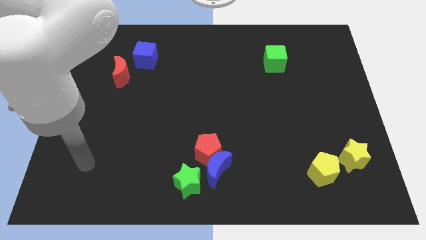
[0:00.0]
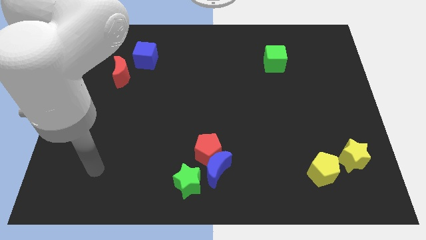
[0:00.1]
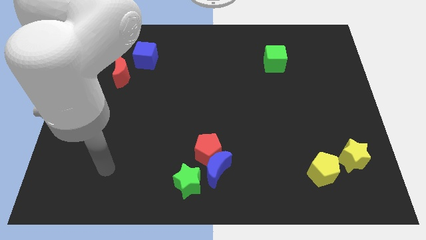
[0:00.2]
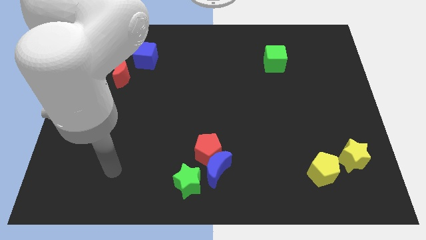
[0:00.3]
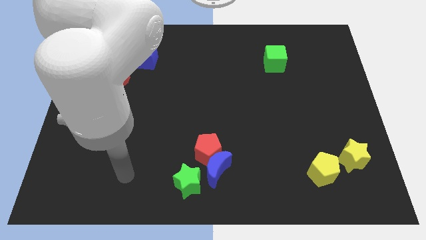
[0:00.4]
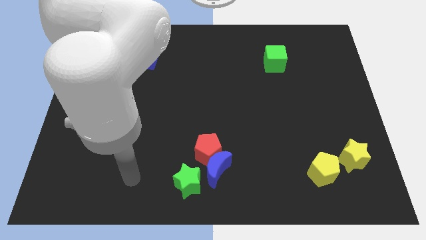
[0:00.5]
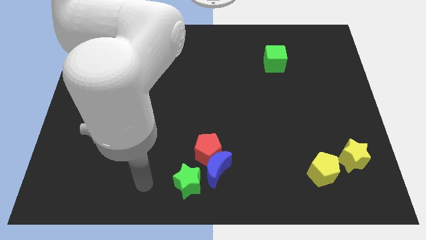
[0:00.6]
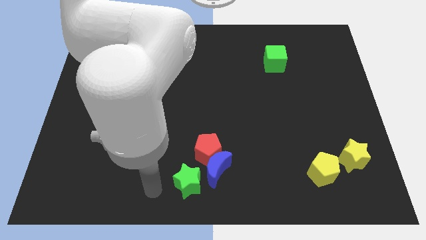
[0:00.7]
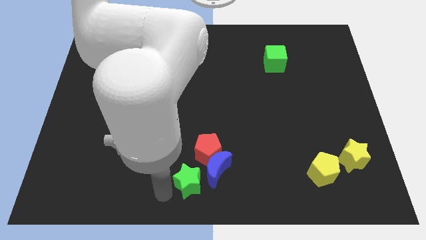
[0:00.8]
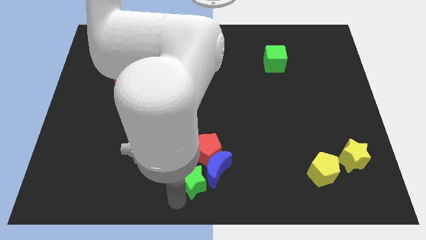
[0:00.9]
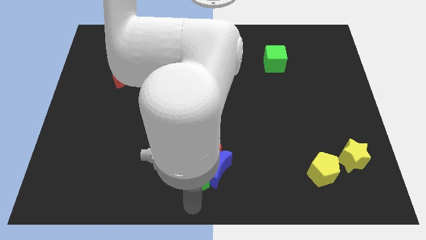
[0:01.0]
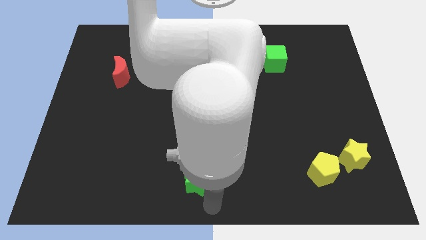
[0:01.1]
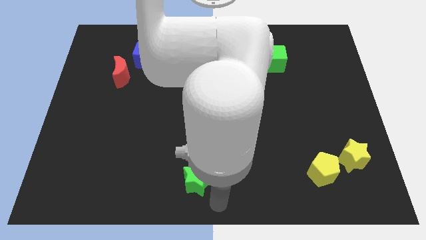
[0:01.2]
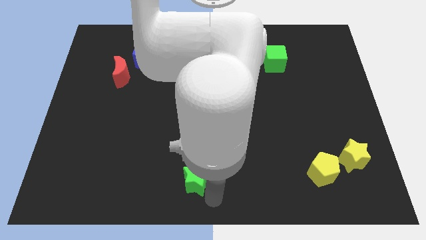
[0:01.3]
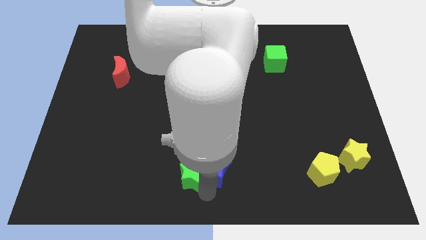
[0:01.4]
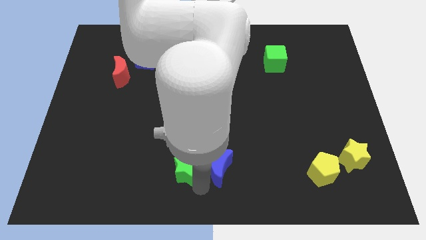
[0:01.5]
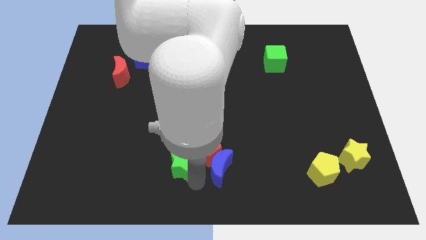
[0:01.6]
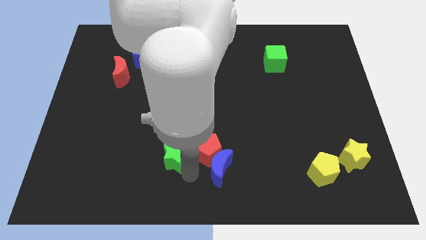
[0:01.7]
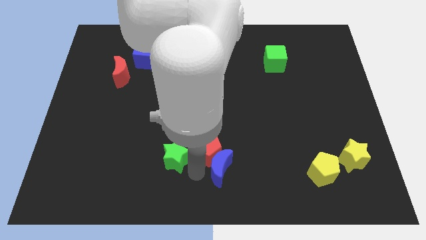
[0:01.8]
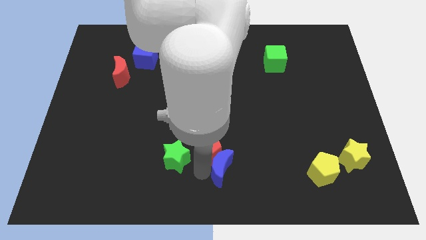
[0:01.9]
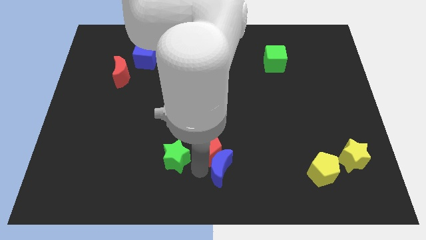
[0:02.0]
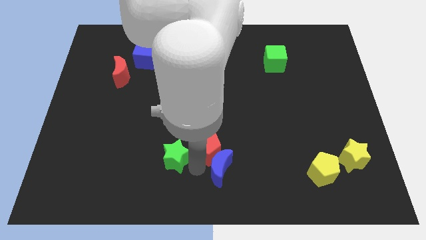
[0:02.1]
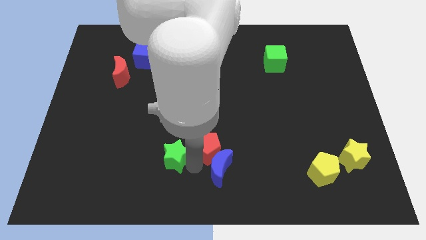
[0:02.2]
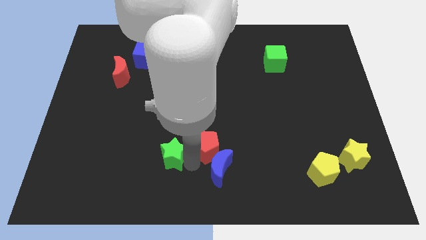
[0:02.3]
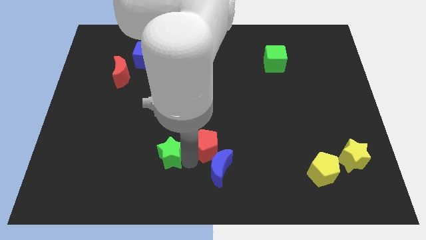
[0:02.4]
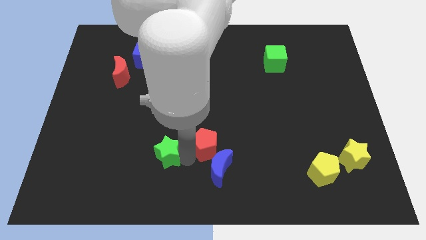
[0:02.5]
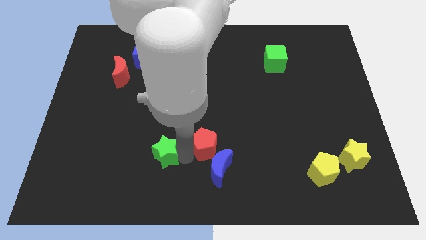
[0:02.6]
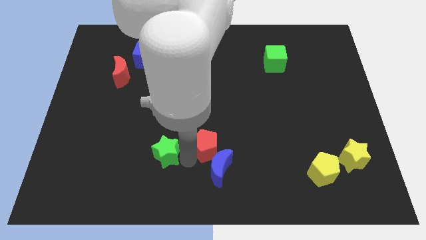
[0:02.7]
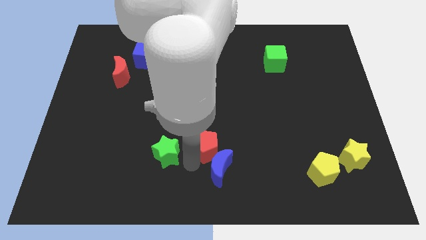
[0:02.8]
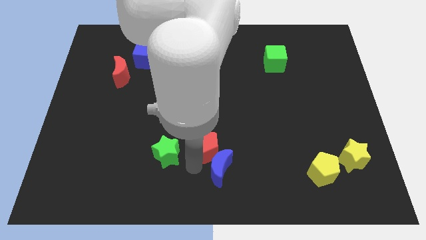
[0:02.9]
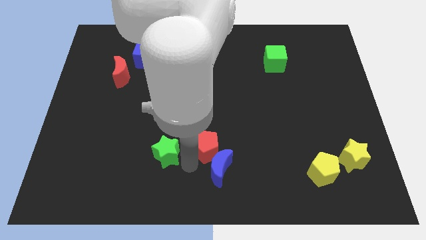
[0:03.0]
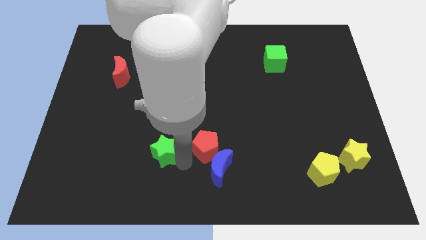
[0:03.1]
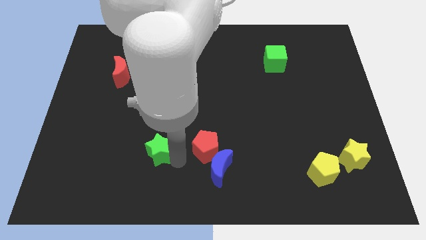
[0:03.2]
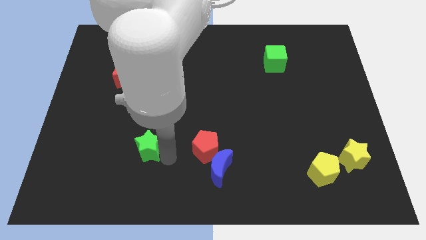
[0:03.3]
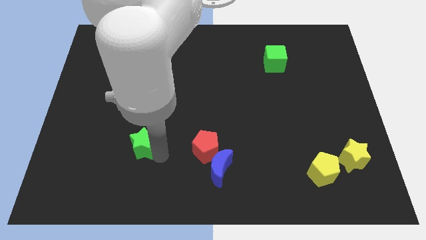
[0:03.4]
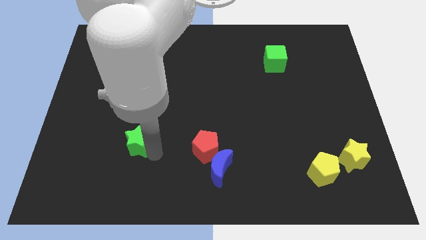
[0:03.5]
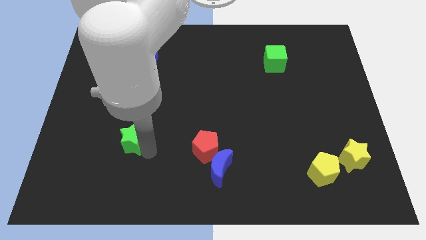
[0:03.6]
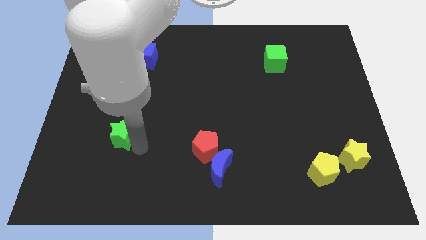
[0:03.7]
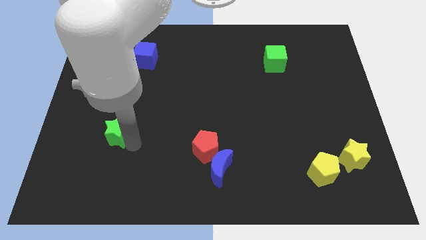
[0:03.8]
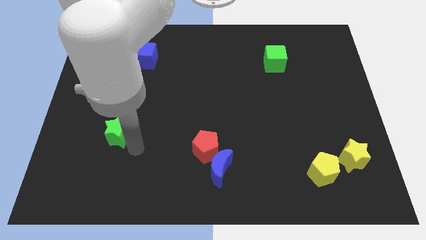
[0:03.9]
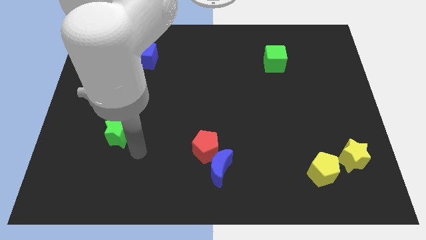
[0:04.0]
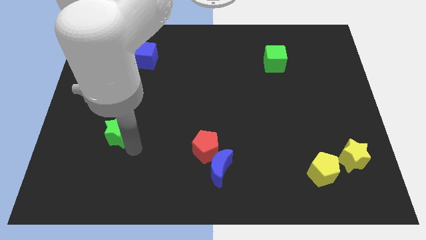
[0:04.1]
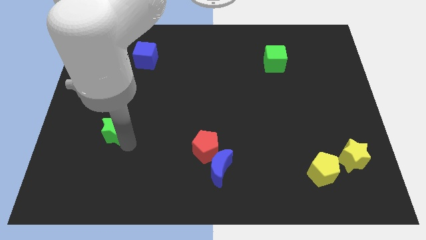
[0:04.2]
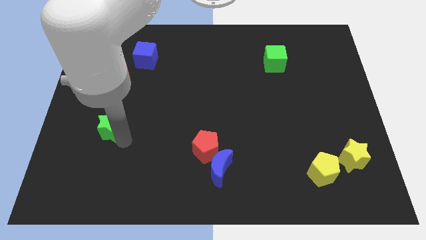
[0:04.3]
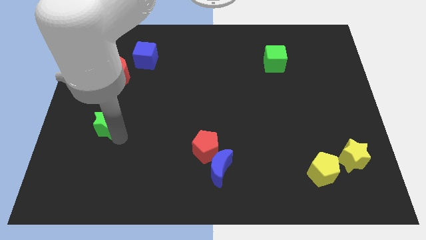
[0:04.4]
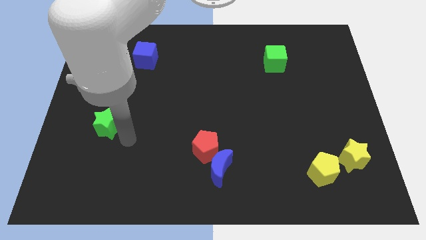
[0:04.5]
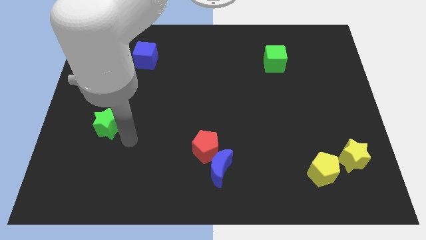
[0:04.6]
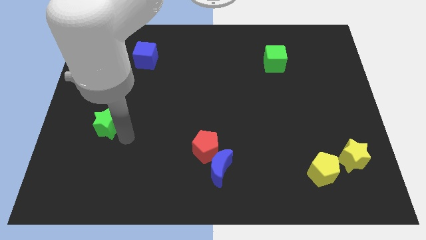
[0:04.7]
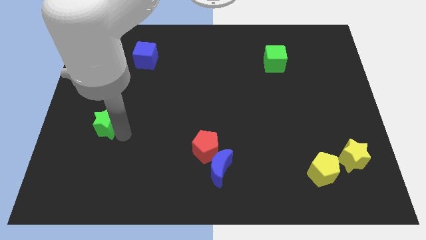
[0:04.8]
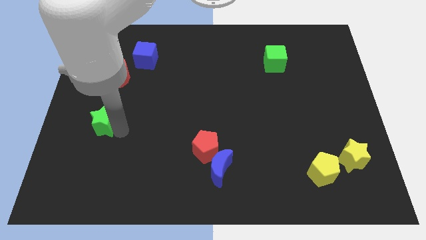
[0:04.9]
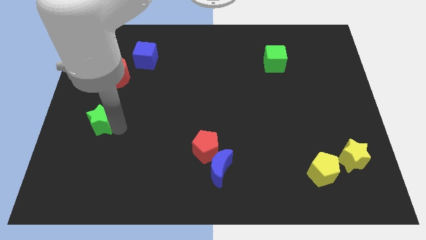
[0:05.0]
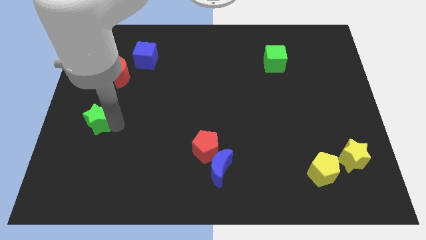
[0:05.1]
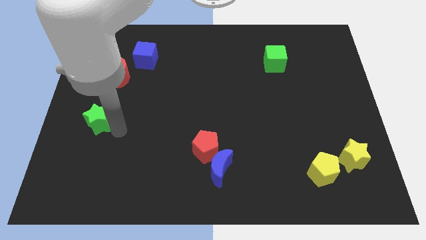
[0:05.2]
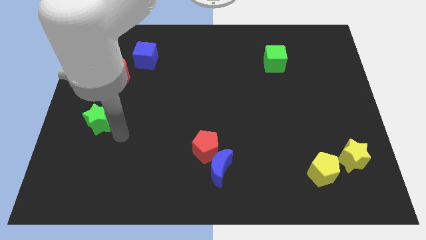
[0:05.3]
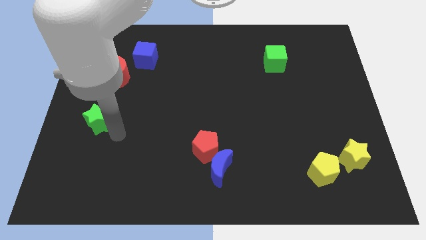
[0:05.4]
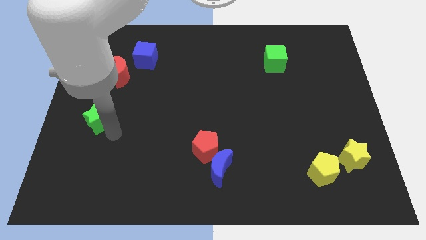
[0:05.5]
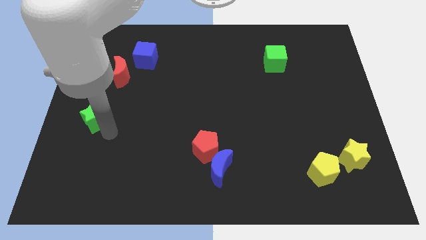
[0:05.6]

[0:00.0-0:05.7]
put the green star to the left side of the board

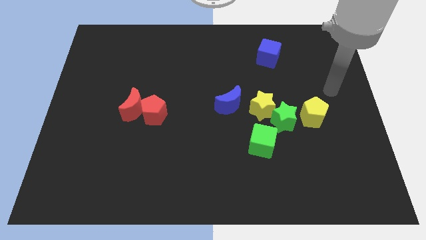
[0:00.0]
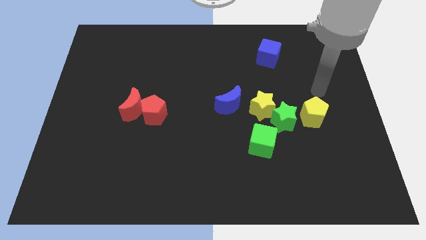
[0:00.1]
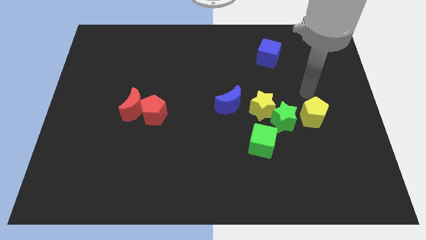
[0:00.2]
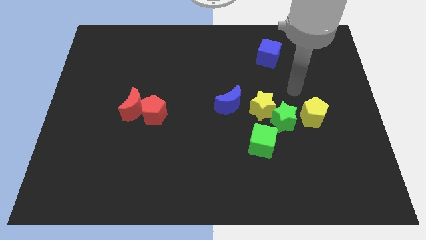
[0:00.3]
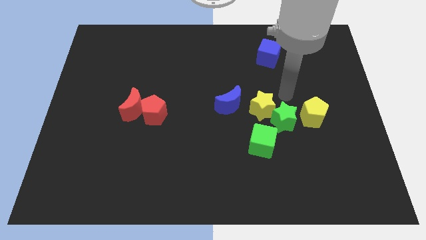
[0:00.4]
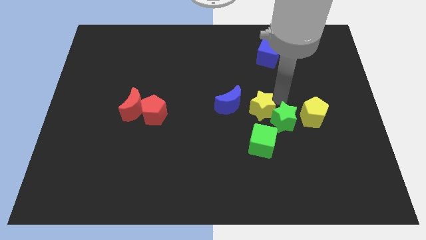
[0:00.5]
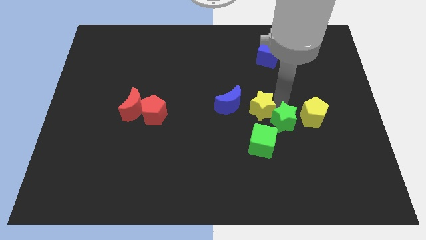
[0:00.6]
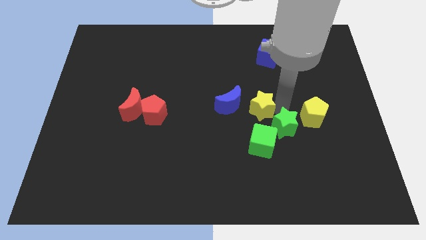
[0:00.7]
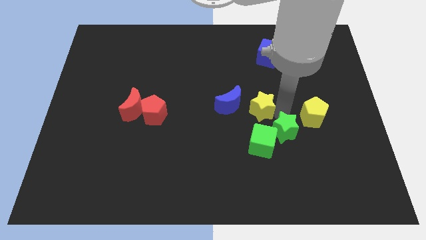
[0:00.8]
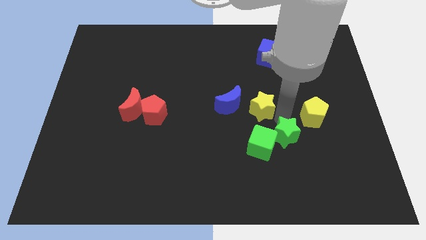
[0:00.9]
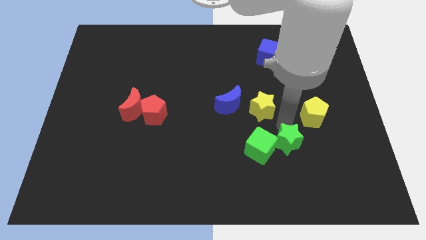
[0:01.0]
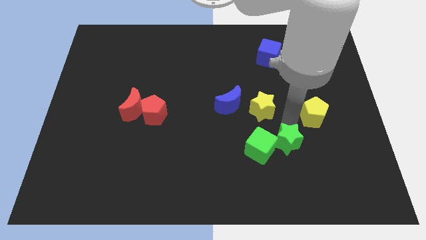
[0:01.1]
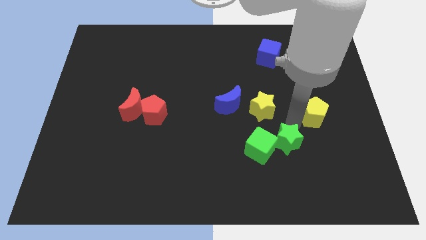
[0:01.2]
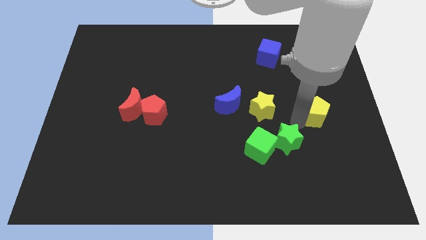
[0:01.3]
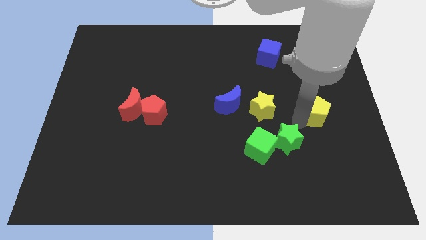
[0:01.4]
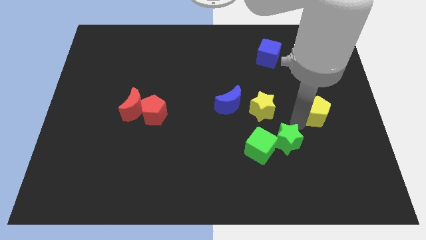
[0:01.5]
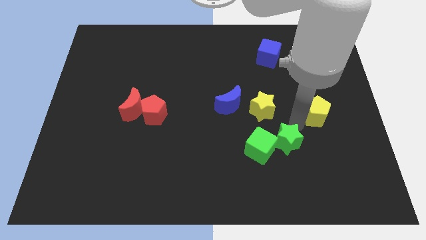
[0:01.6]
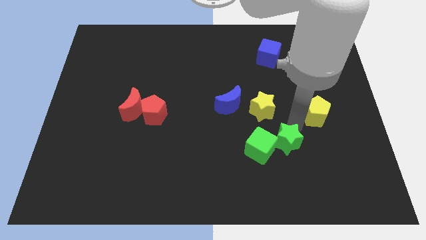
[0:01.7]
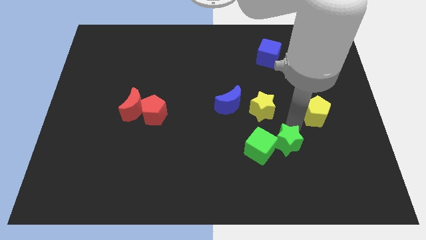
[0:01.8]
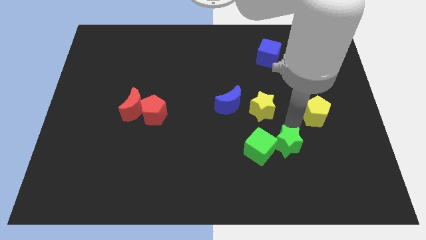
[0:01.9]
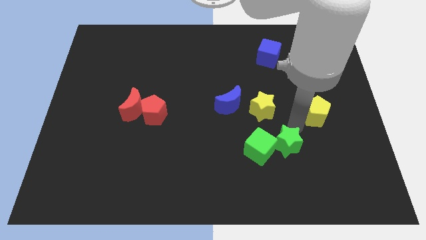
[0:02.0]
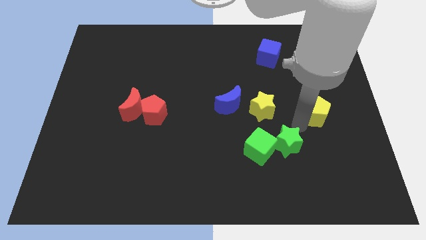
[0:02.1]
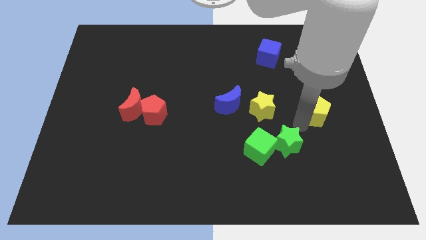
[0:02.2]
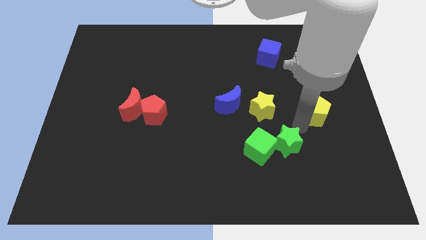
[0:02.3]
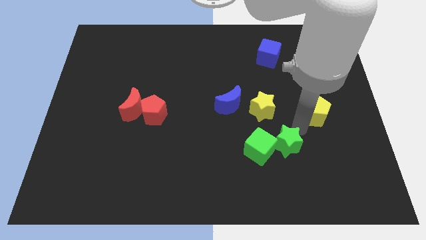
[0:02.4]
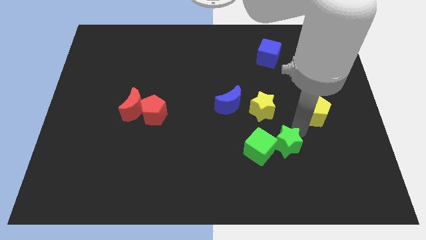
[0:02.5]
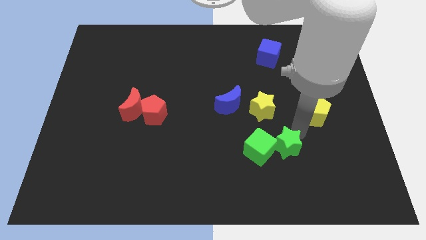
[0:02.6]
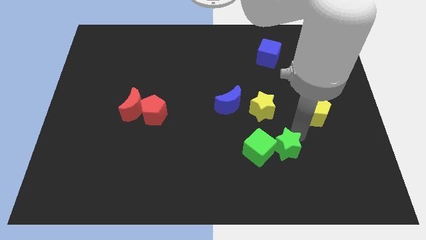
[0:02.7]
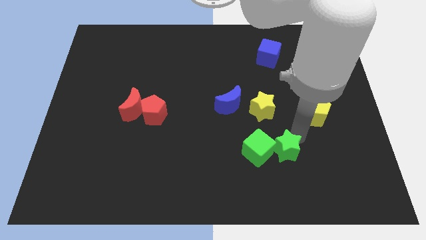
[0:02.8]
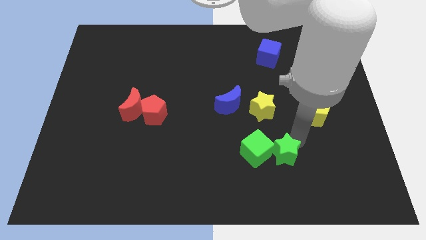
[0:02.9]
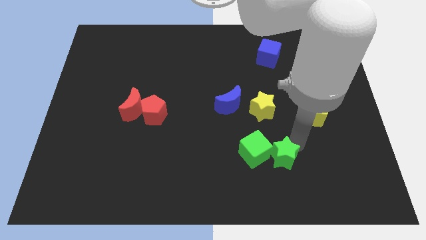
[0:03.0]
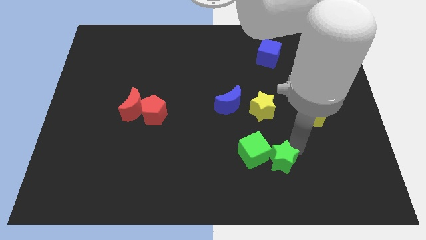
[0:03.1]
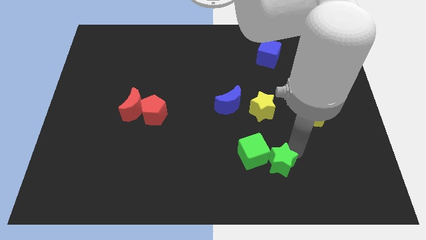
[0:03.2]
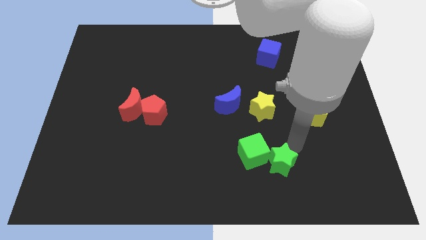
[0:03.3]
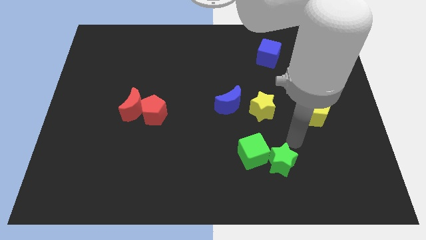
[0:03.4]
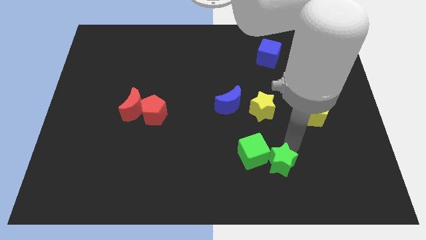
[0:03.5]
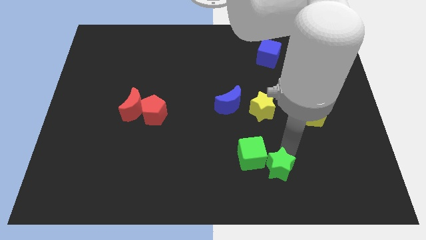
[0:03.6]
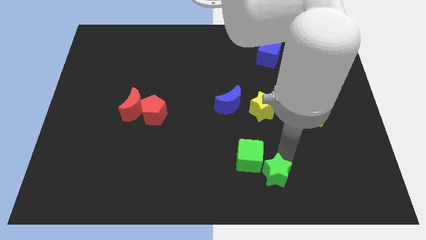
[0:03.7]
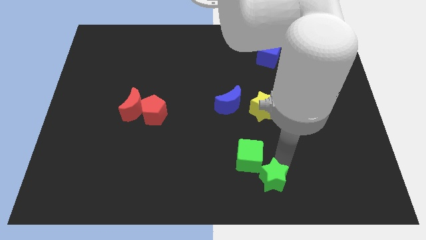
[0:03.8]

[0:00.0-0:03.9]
slide the green star to the bottom
